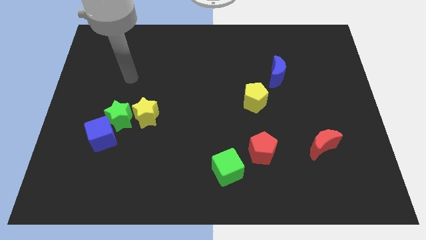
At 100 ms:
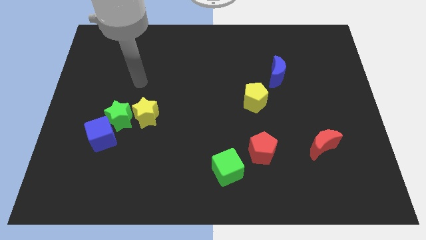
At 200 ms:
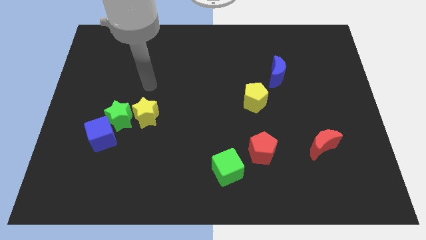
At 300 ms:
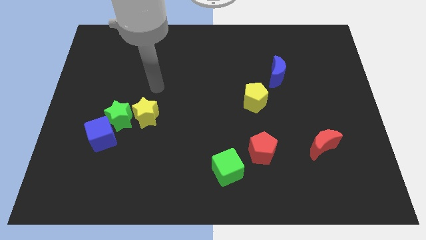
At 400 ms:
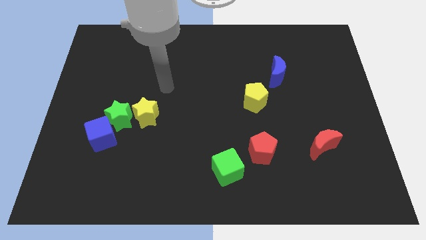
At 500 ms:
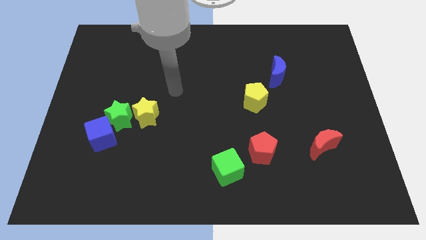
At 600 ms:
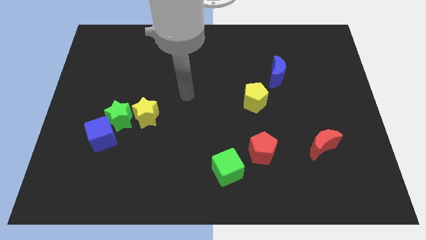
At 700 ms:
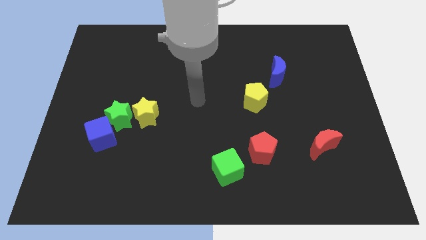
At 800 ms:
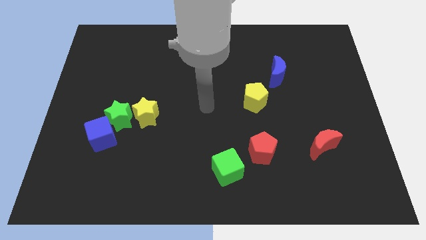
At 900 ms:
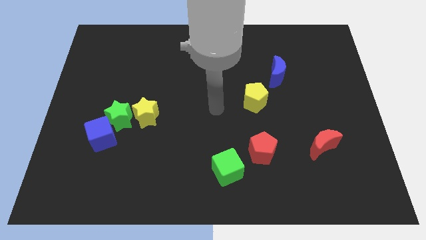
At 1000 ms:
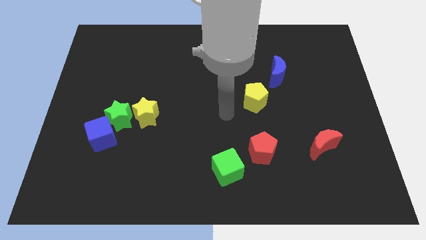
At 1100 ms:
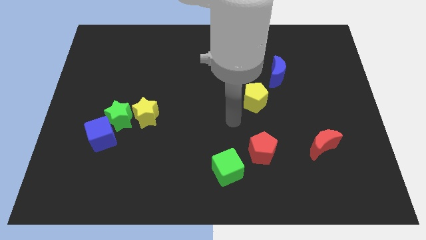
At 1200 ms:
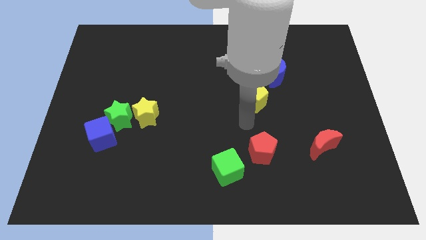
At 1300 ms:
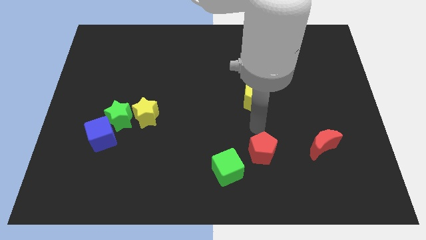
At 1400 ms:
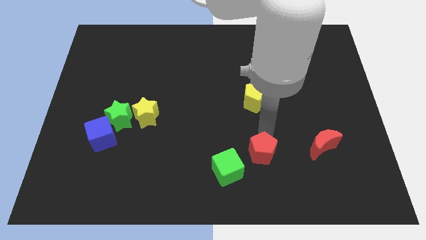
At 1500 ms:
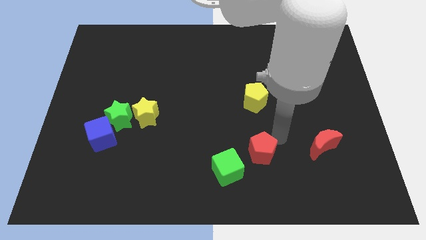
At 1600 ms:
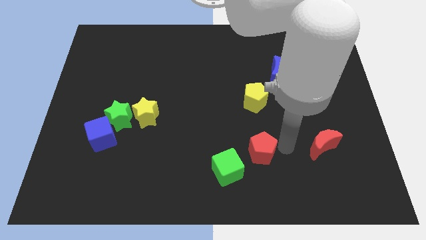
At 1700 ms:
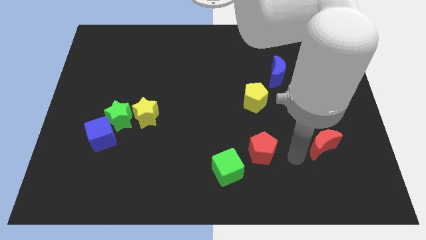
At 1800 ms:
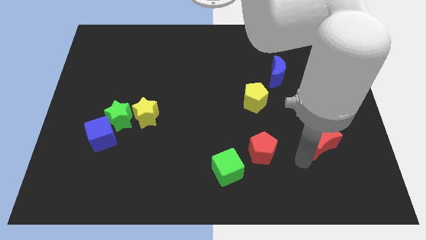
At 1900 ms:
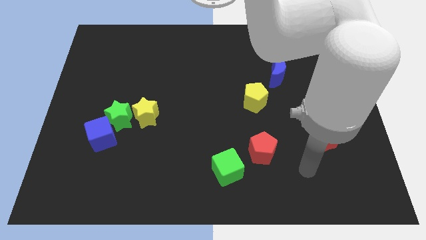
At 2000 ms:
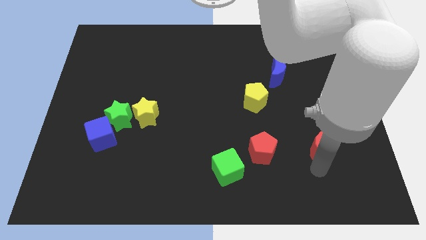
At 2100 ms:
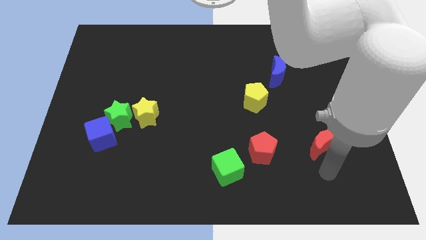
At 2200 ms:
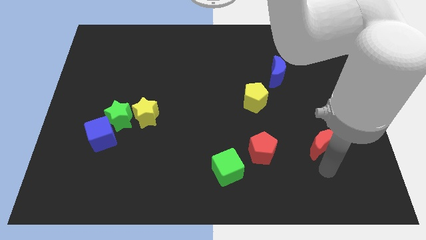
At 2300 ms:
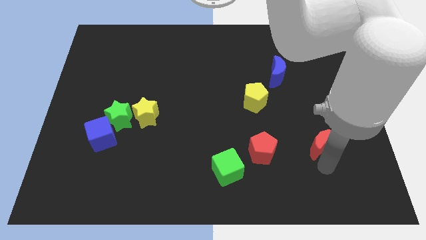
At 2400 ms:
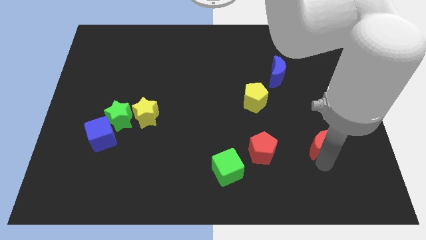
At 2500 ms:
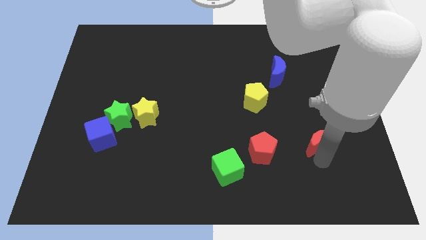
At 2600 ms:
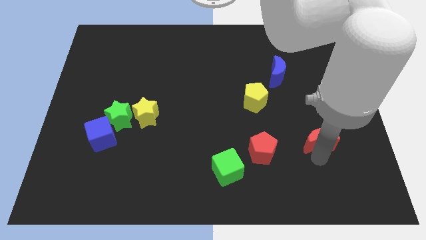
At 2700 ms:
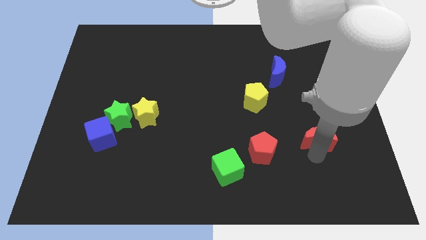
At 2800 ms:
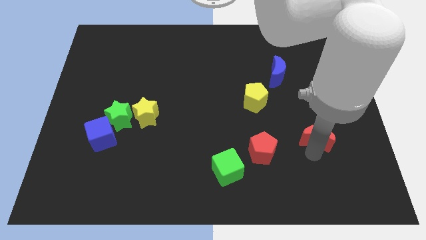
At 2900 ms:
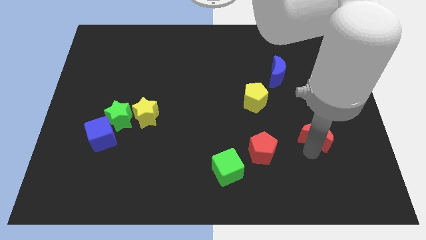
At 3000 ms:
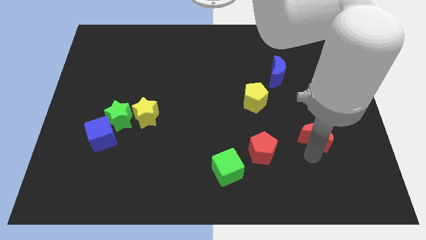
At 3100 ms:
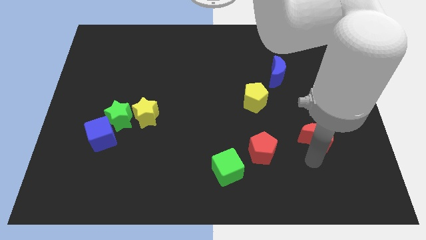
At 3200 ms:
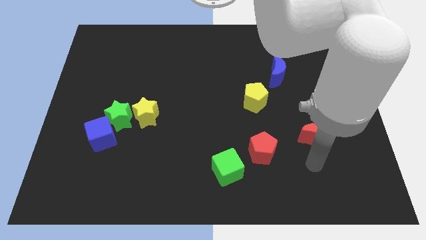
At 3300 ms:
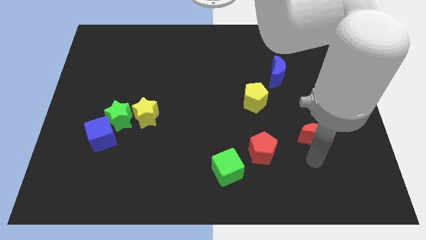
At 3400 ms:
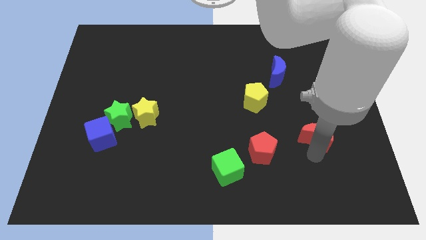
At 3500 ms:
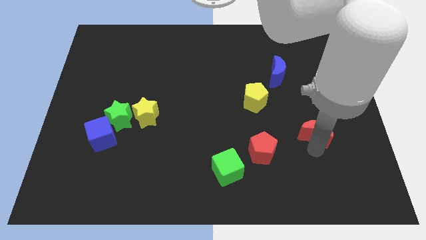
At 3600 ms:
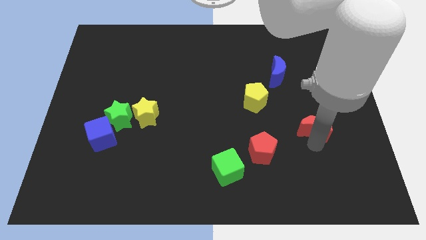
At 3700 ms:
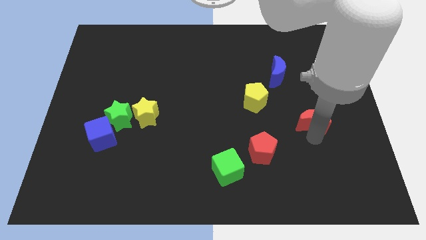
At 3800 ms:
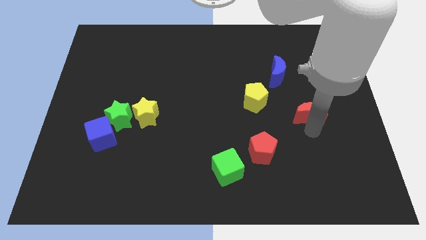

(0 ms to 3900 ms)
push the red moon slightly up

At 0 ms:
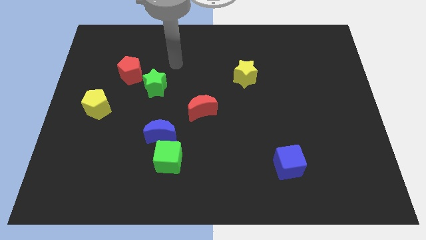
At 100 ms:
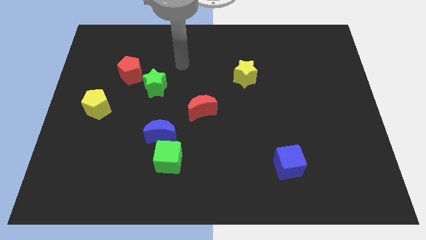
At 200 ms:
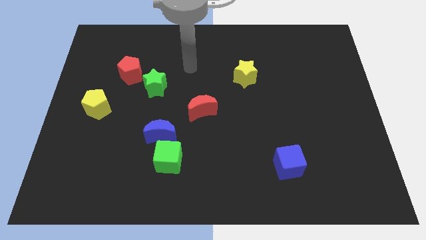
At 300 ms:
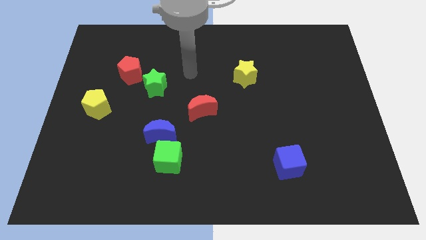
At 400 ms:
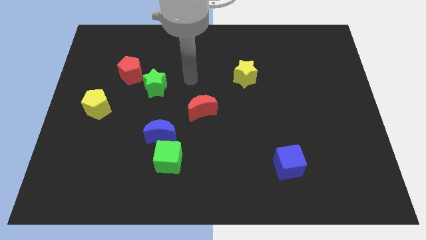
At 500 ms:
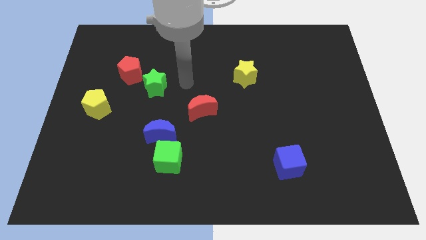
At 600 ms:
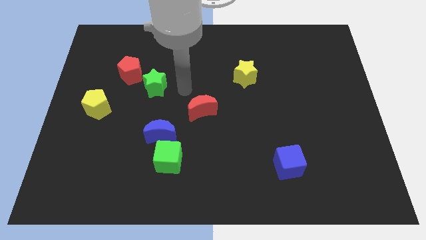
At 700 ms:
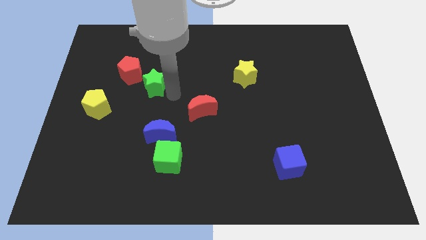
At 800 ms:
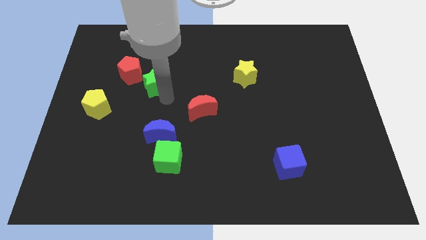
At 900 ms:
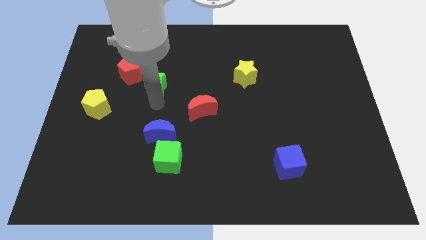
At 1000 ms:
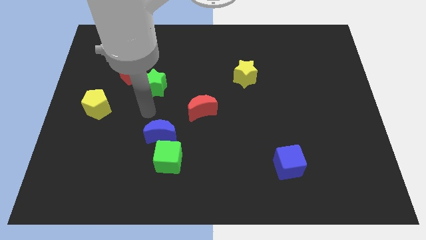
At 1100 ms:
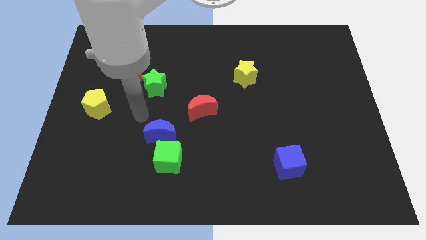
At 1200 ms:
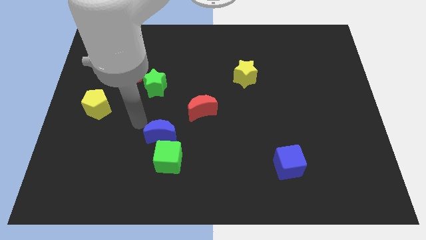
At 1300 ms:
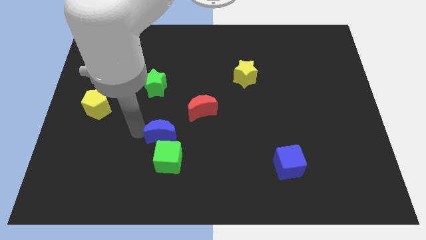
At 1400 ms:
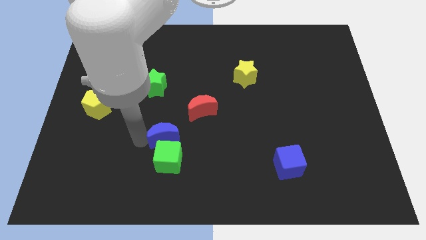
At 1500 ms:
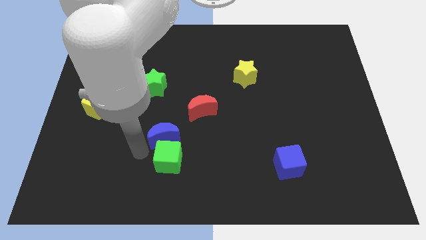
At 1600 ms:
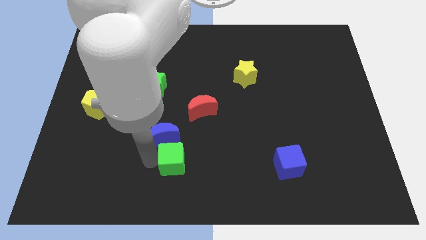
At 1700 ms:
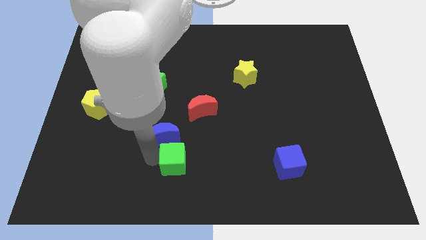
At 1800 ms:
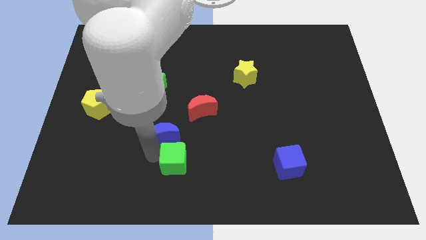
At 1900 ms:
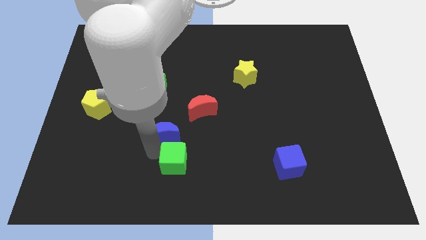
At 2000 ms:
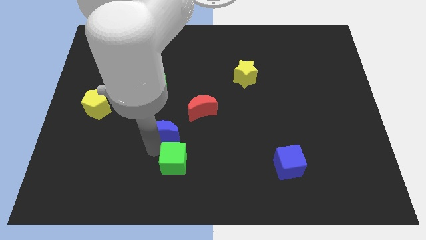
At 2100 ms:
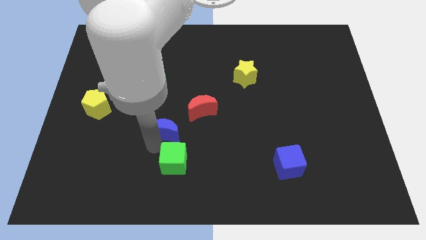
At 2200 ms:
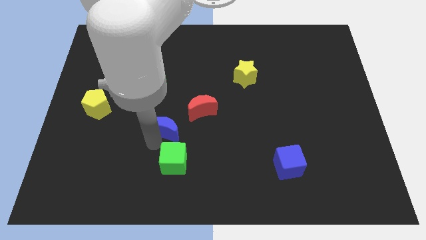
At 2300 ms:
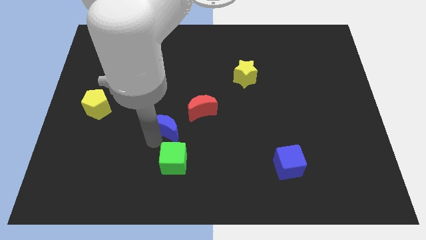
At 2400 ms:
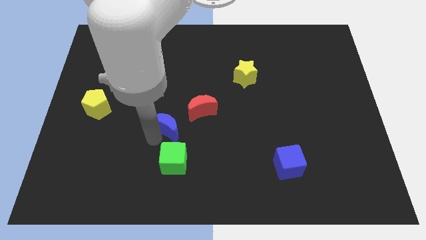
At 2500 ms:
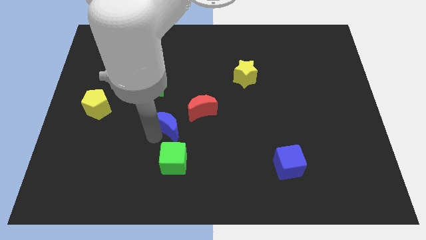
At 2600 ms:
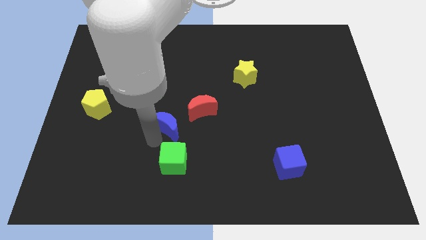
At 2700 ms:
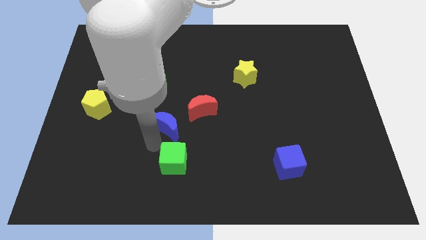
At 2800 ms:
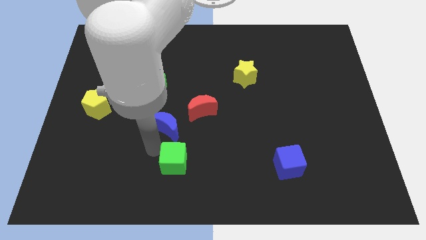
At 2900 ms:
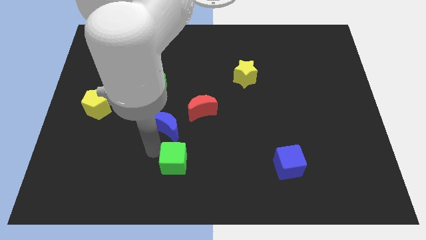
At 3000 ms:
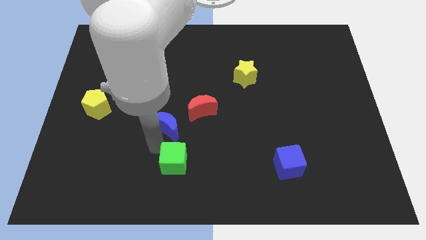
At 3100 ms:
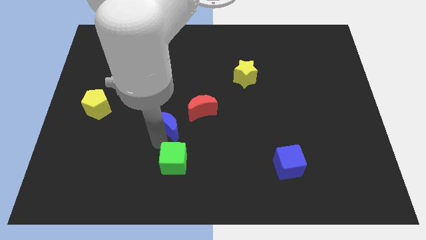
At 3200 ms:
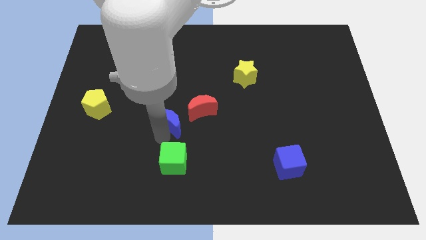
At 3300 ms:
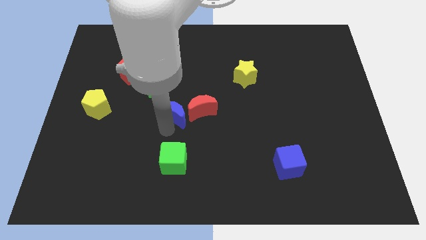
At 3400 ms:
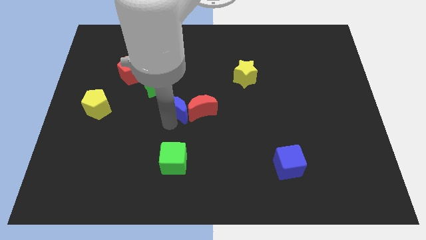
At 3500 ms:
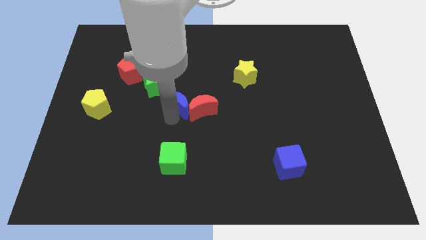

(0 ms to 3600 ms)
push the blue moon somewhat upwards and right diagonally

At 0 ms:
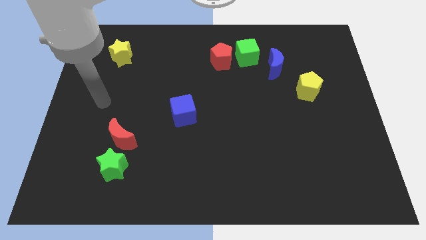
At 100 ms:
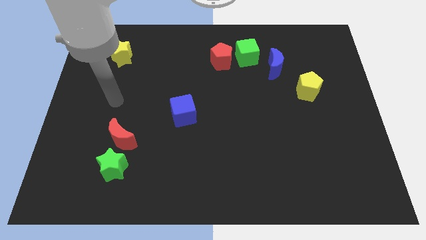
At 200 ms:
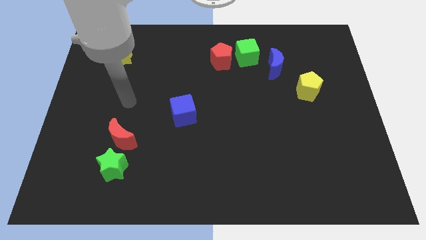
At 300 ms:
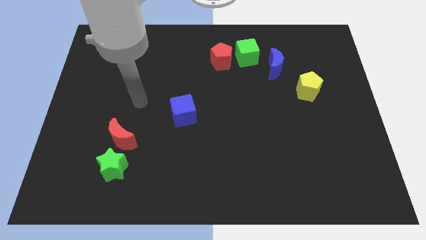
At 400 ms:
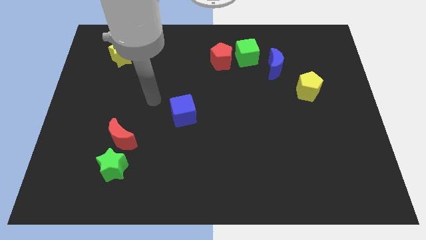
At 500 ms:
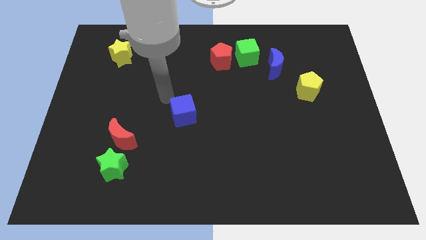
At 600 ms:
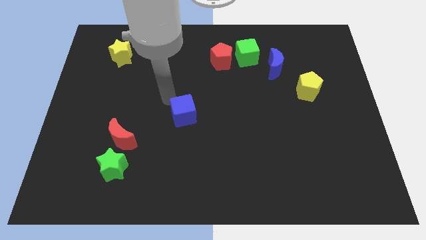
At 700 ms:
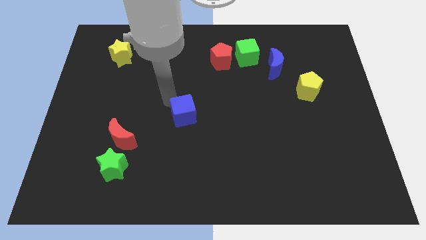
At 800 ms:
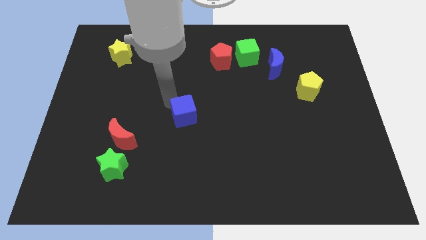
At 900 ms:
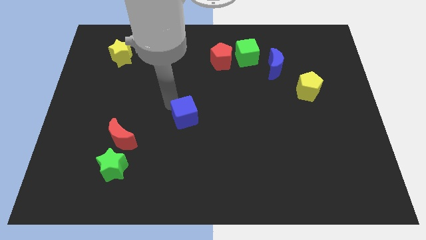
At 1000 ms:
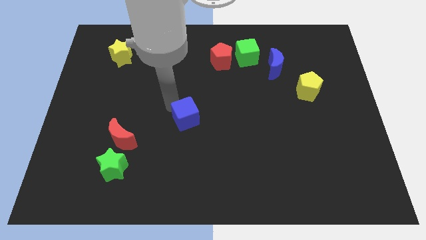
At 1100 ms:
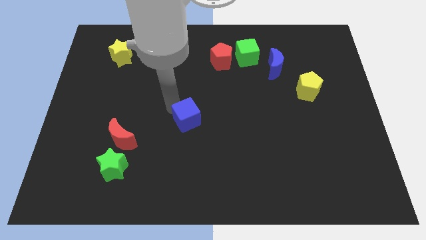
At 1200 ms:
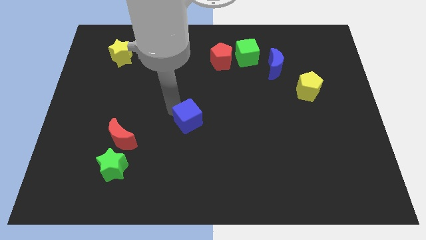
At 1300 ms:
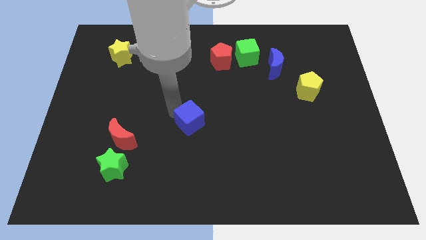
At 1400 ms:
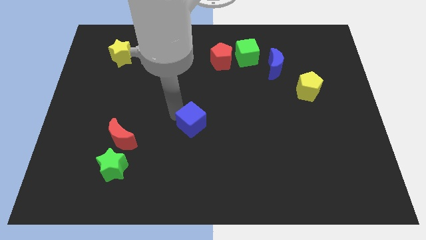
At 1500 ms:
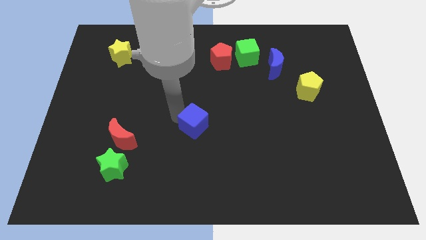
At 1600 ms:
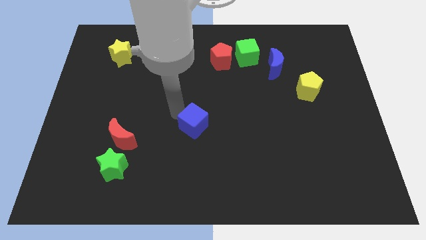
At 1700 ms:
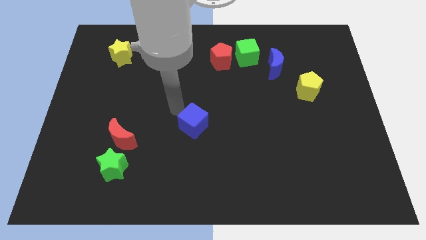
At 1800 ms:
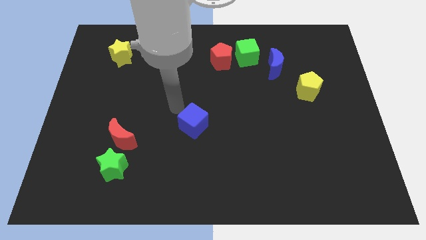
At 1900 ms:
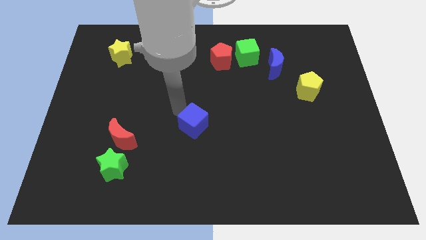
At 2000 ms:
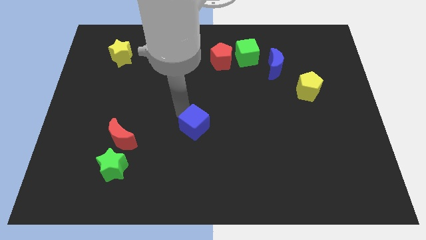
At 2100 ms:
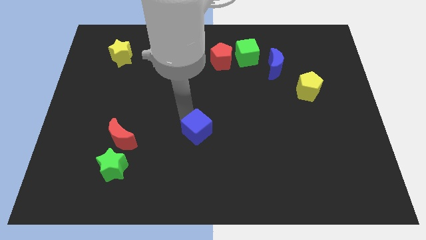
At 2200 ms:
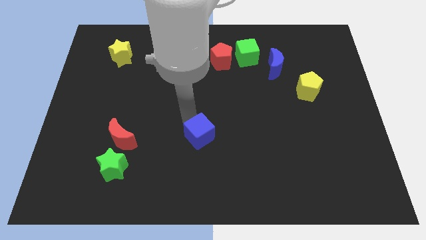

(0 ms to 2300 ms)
push the blue cube a little downwards and right diagonally
